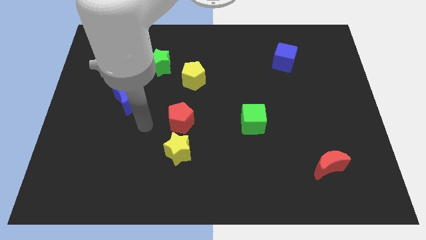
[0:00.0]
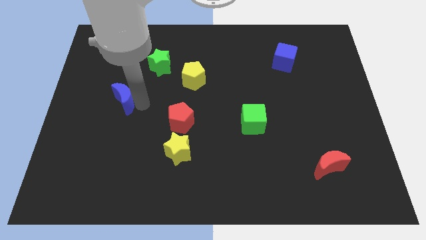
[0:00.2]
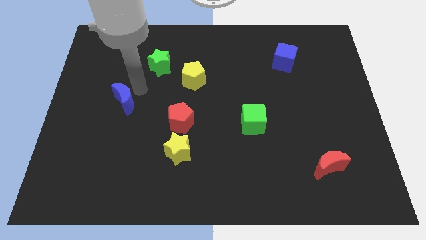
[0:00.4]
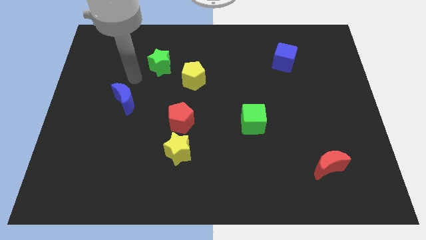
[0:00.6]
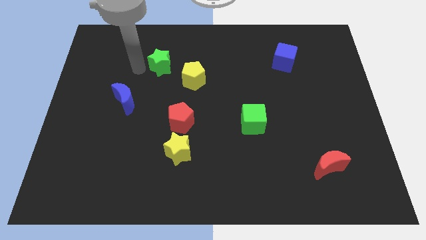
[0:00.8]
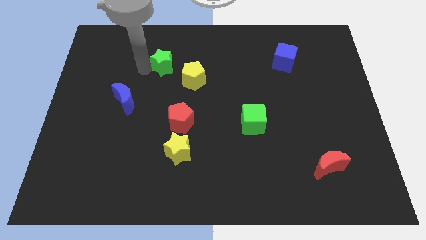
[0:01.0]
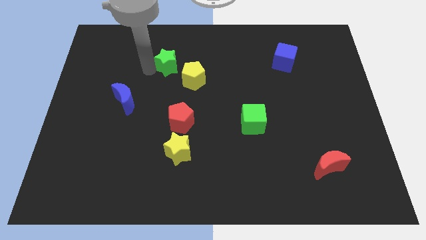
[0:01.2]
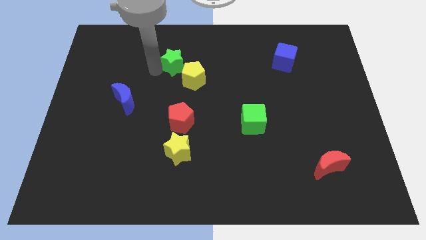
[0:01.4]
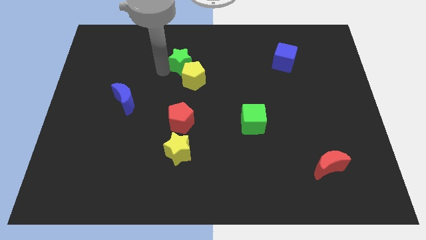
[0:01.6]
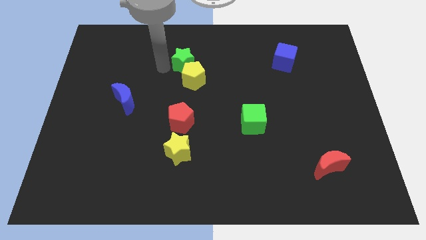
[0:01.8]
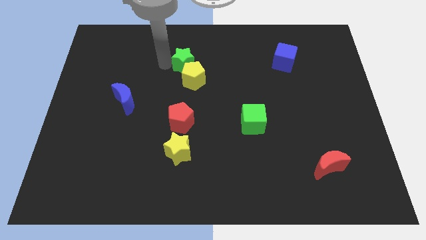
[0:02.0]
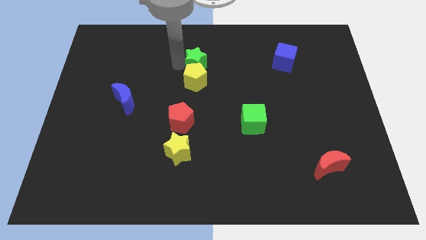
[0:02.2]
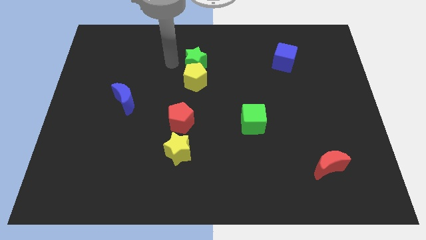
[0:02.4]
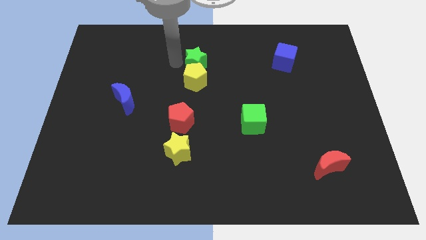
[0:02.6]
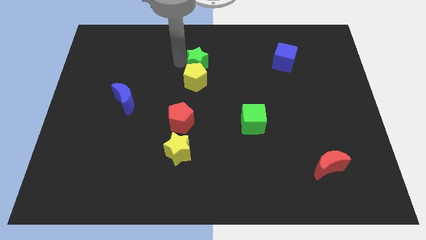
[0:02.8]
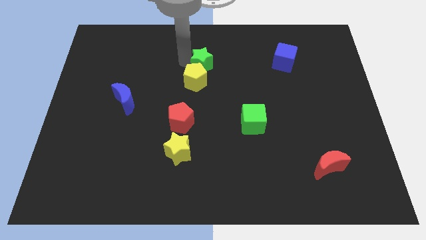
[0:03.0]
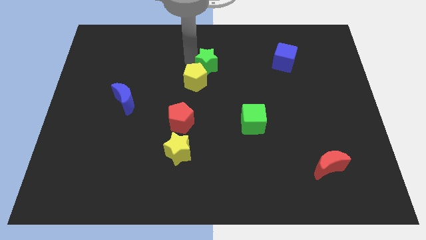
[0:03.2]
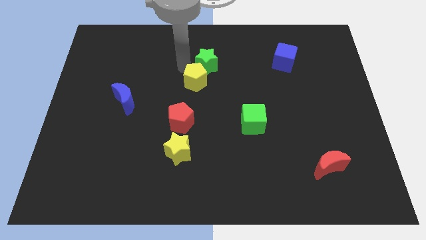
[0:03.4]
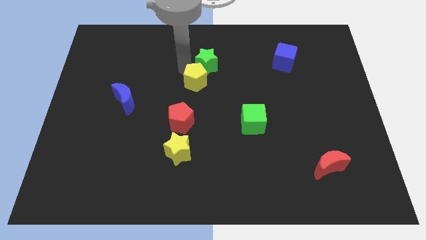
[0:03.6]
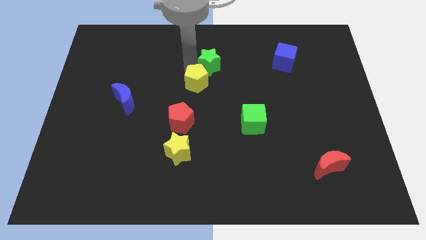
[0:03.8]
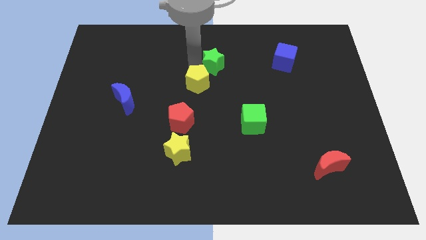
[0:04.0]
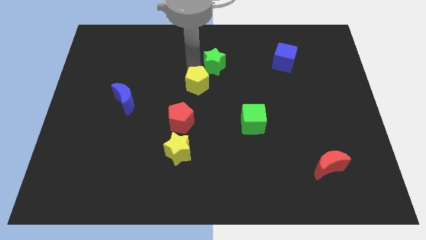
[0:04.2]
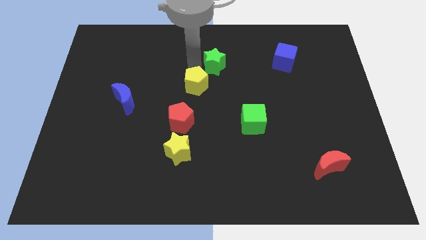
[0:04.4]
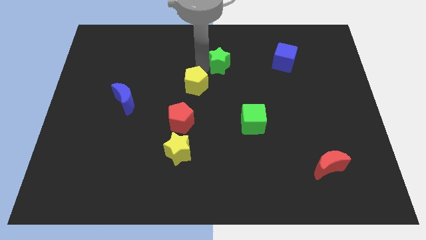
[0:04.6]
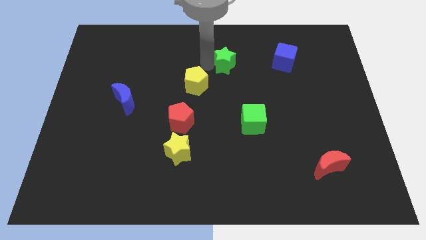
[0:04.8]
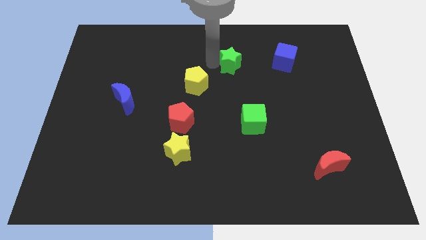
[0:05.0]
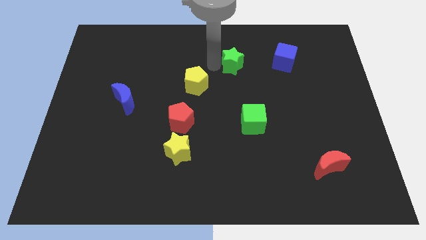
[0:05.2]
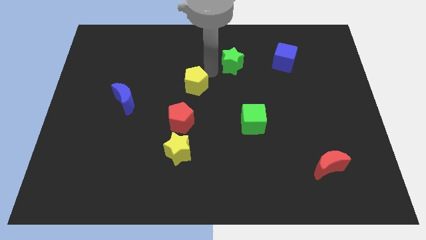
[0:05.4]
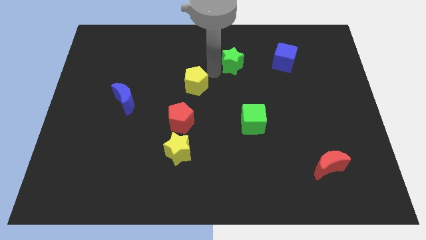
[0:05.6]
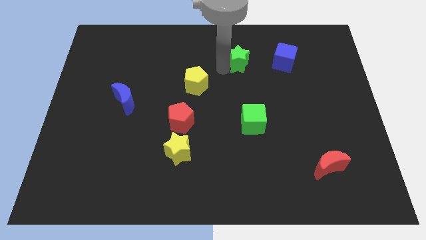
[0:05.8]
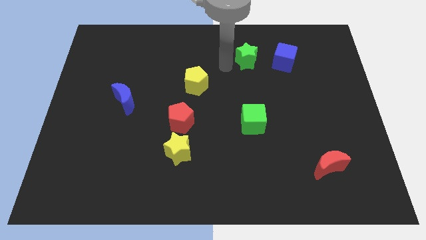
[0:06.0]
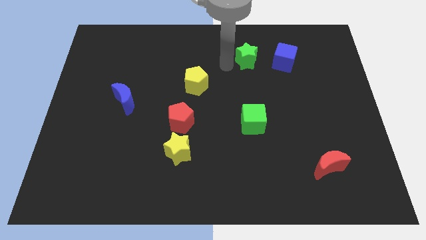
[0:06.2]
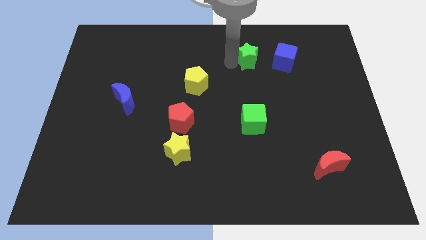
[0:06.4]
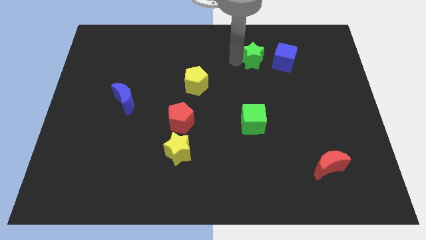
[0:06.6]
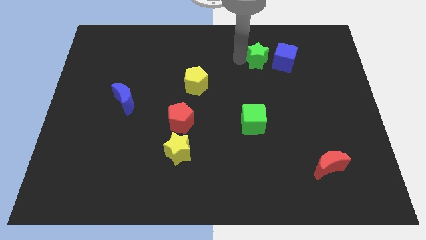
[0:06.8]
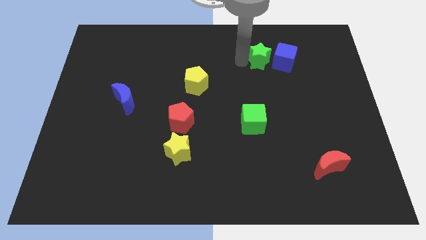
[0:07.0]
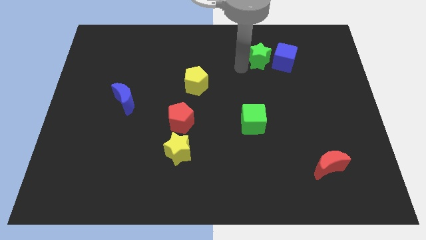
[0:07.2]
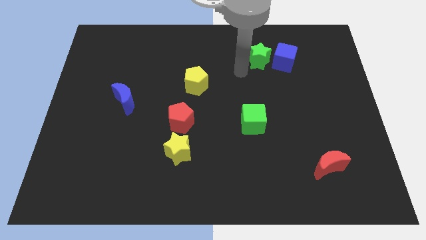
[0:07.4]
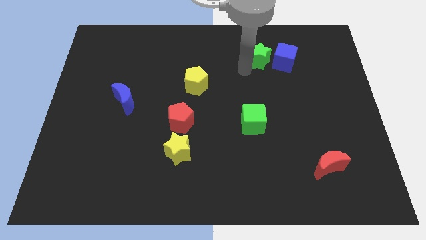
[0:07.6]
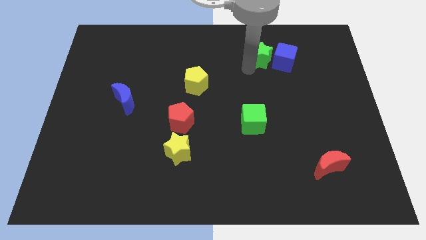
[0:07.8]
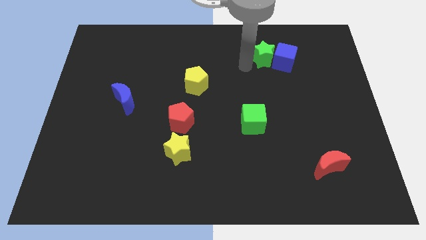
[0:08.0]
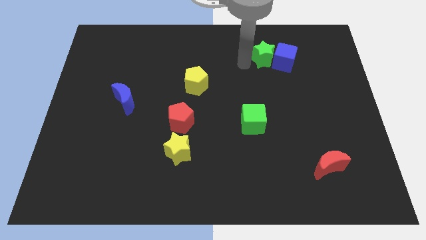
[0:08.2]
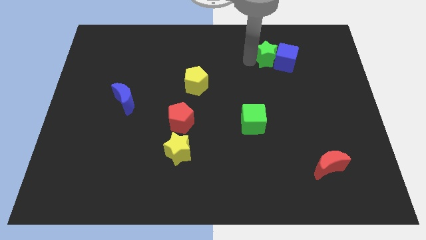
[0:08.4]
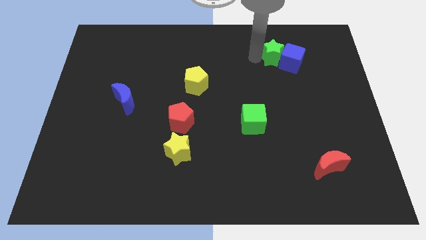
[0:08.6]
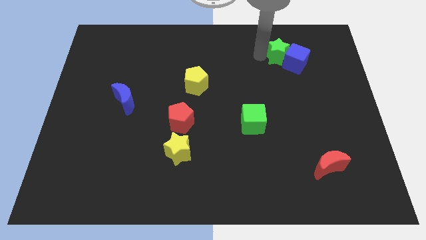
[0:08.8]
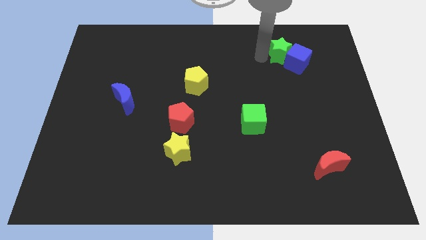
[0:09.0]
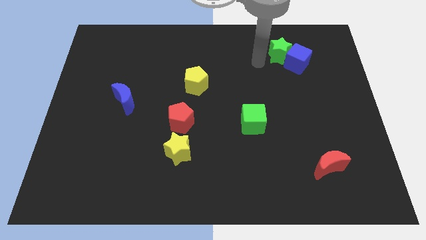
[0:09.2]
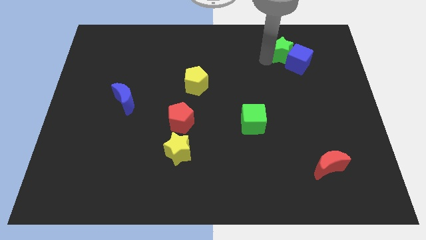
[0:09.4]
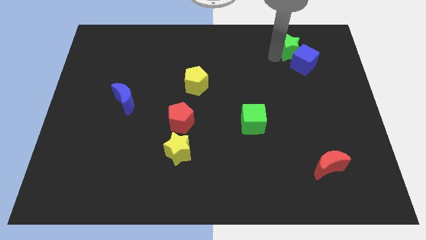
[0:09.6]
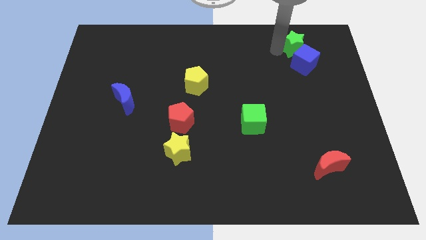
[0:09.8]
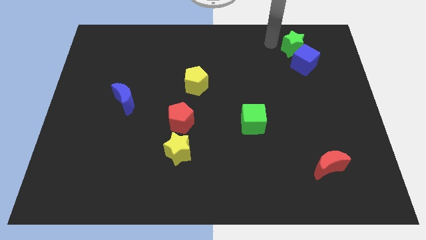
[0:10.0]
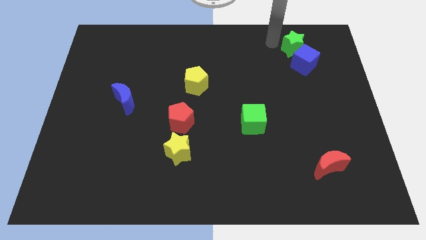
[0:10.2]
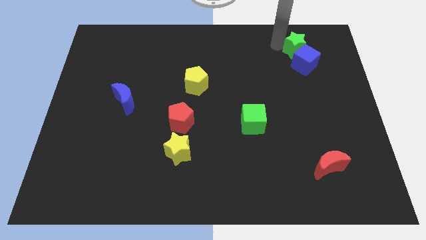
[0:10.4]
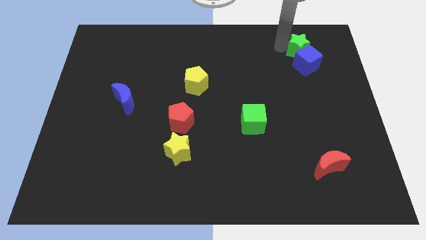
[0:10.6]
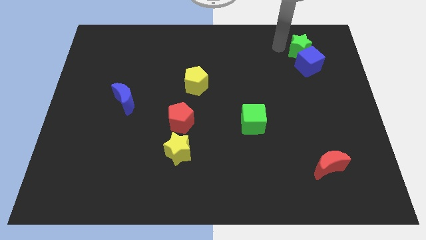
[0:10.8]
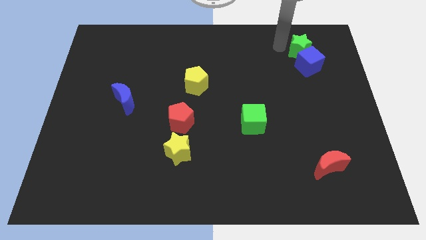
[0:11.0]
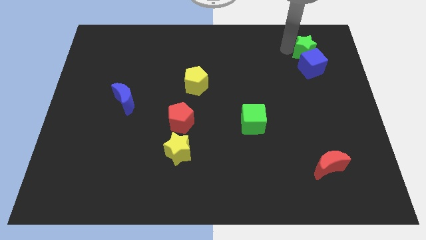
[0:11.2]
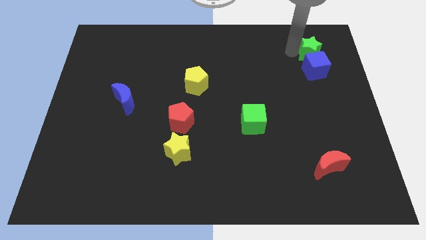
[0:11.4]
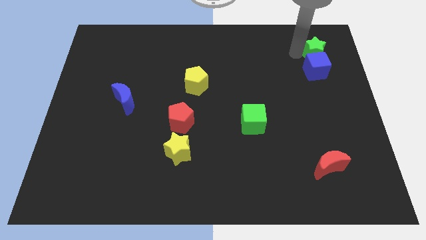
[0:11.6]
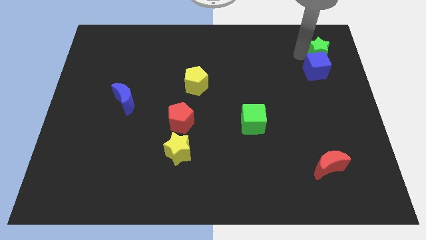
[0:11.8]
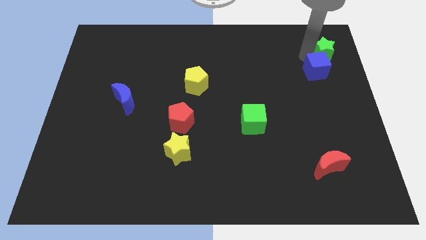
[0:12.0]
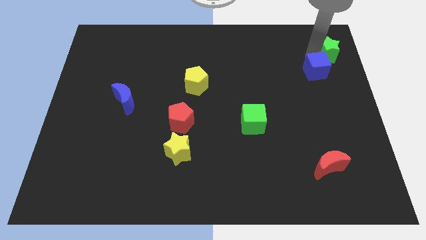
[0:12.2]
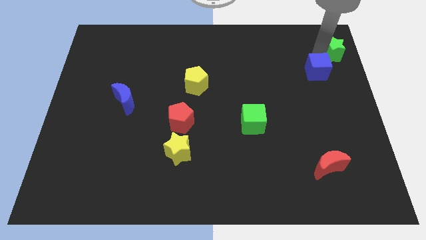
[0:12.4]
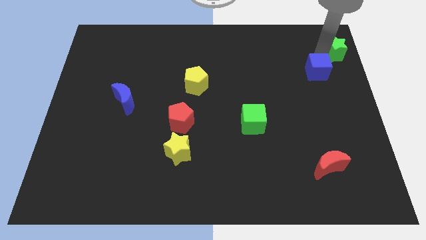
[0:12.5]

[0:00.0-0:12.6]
put the green star to the top right of the board
